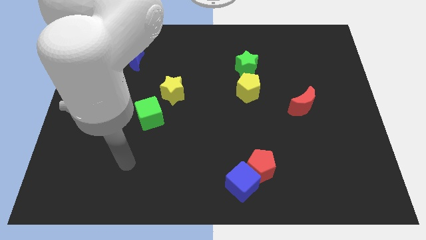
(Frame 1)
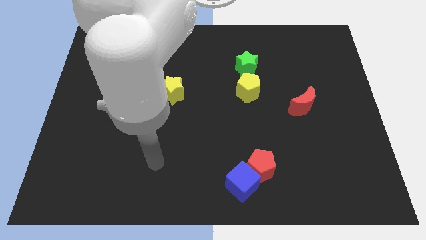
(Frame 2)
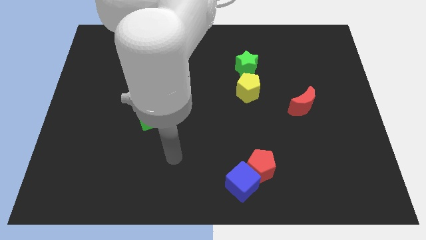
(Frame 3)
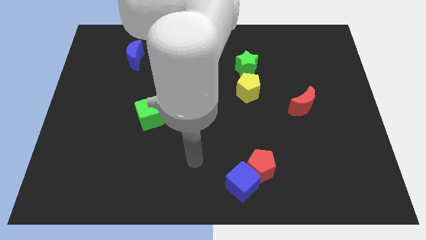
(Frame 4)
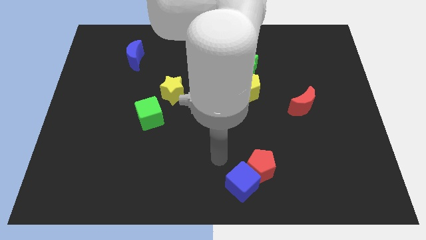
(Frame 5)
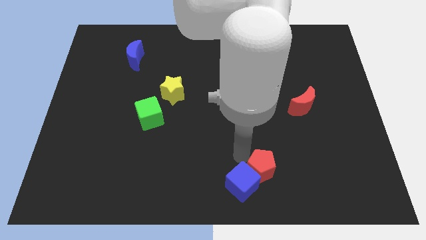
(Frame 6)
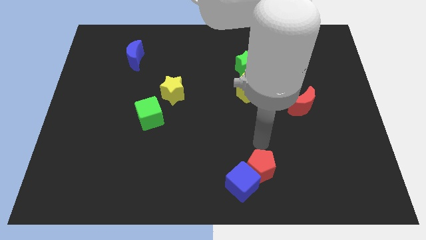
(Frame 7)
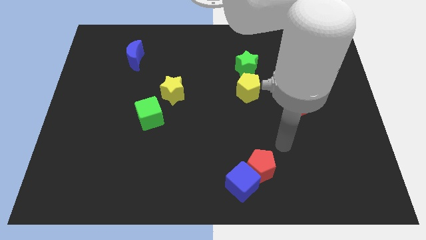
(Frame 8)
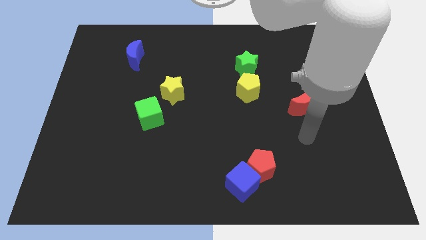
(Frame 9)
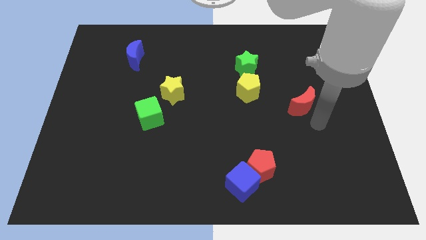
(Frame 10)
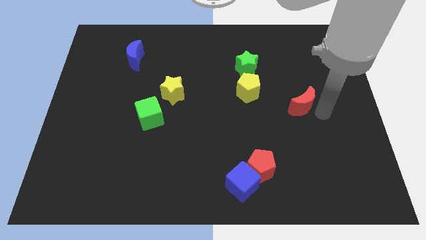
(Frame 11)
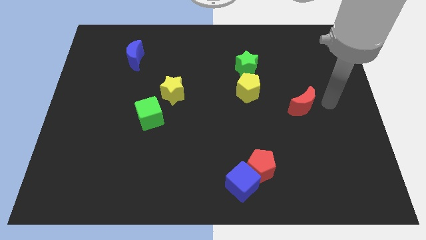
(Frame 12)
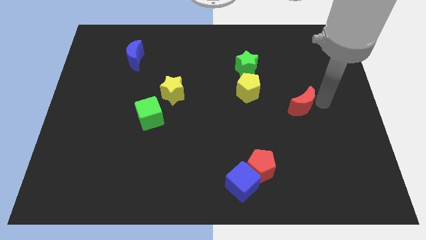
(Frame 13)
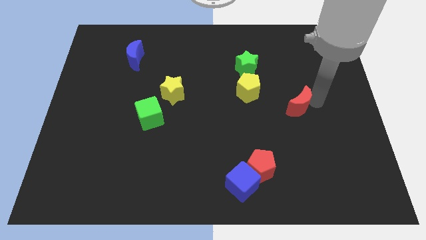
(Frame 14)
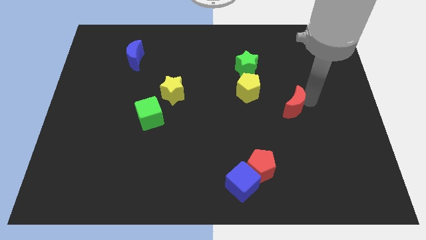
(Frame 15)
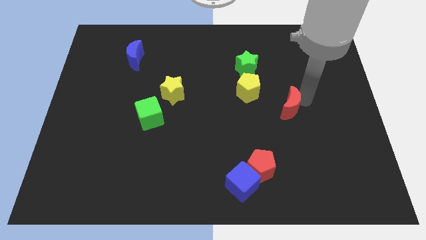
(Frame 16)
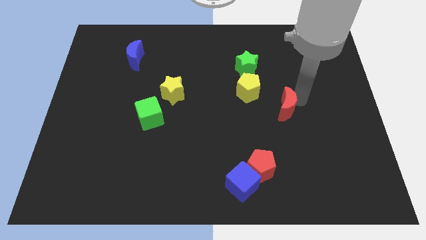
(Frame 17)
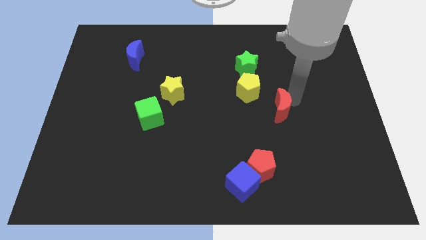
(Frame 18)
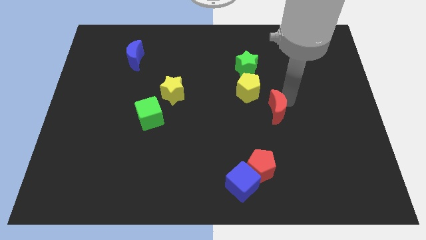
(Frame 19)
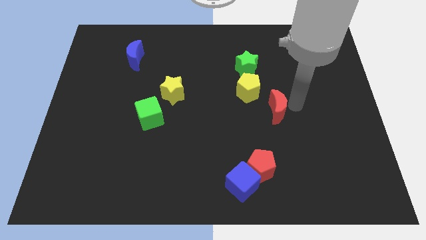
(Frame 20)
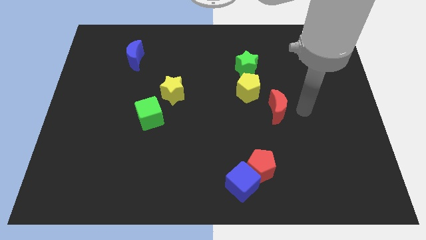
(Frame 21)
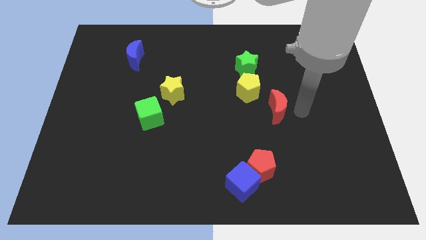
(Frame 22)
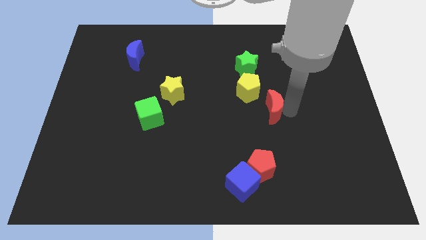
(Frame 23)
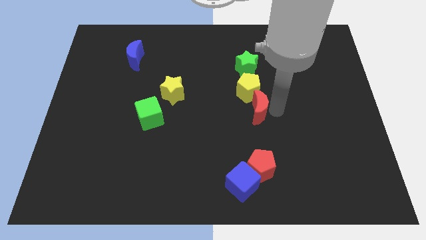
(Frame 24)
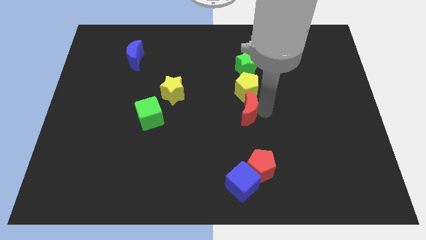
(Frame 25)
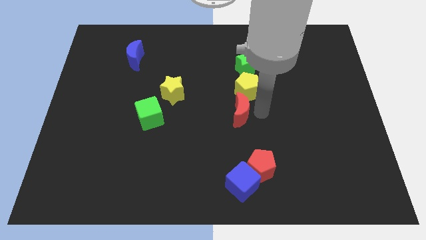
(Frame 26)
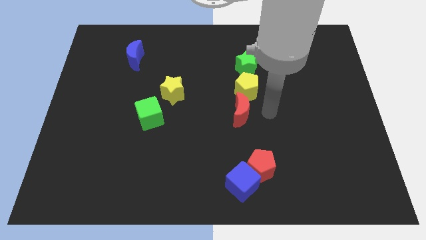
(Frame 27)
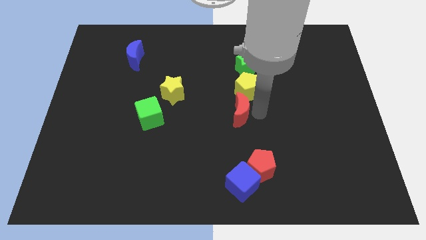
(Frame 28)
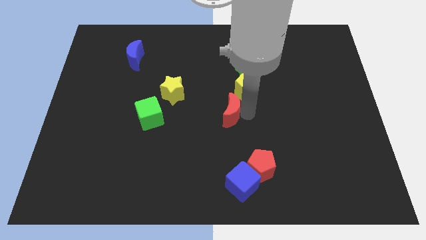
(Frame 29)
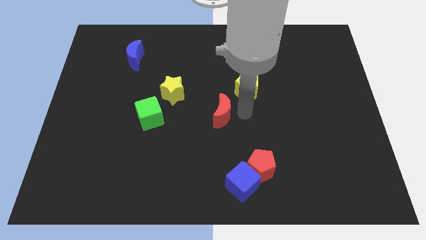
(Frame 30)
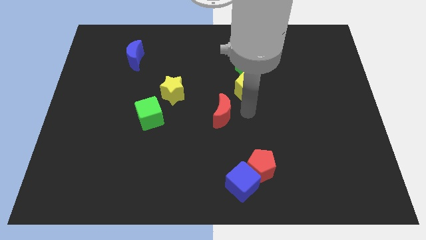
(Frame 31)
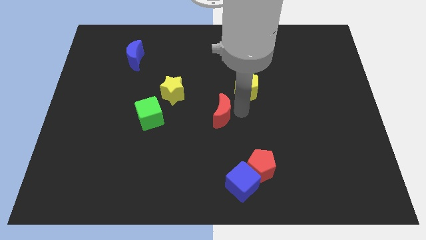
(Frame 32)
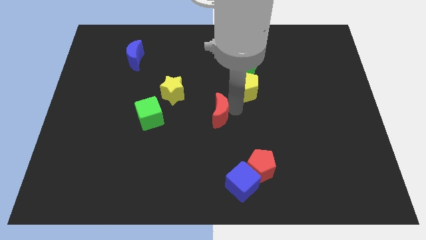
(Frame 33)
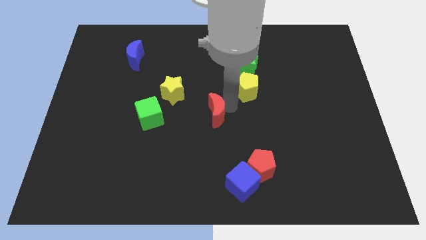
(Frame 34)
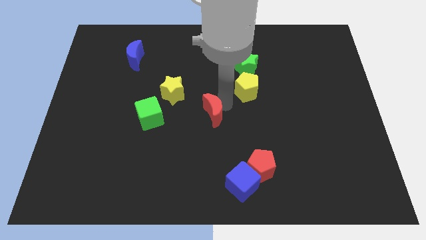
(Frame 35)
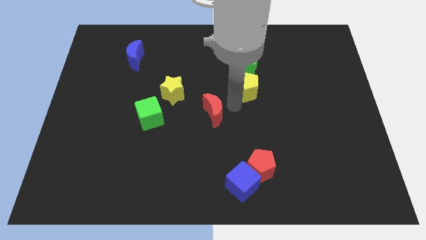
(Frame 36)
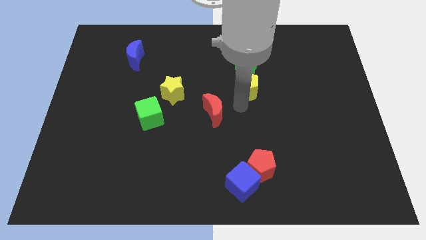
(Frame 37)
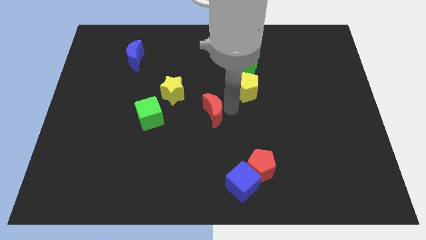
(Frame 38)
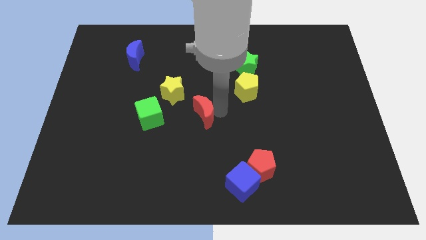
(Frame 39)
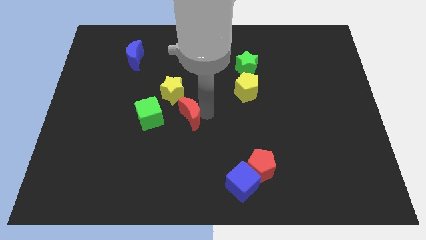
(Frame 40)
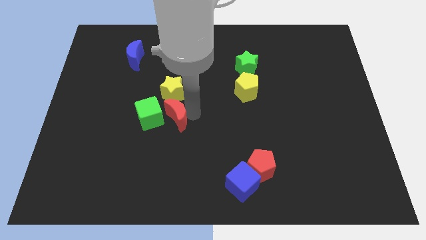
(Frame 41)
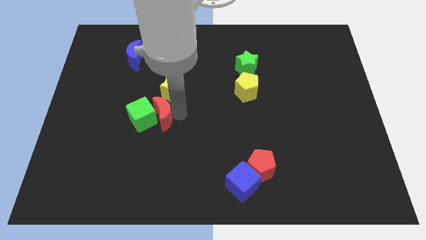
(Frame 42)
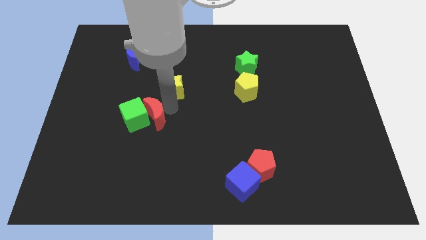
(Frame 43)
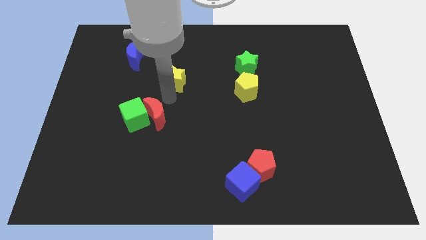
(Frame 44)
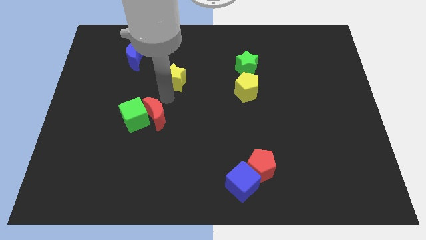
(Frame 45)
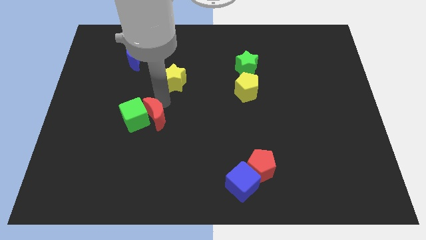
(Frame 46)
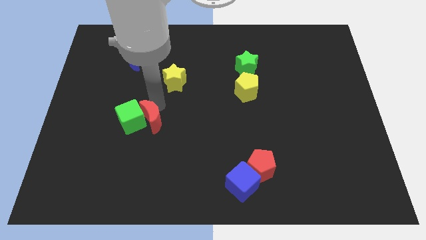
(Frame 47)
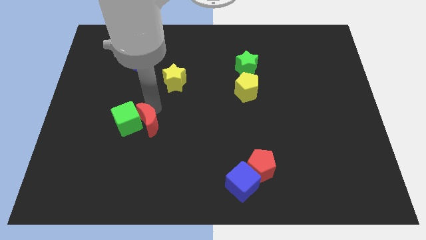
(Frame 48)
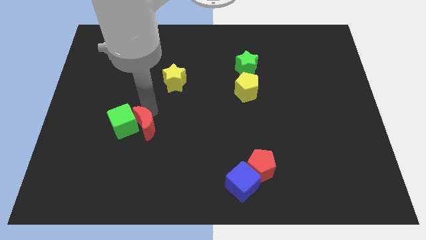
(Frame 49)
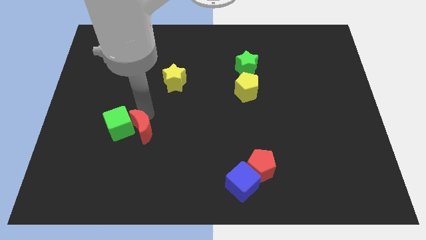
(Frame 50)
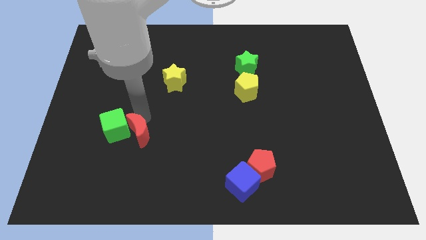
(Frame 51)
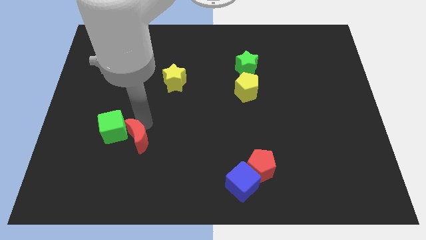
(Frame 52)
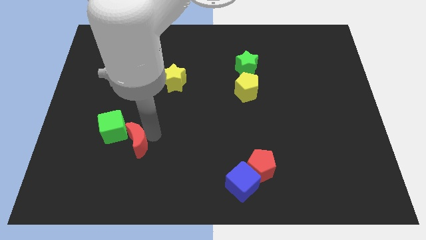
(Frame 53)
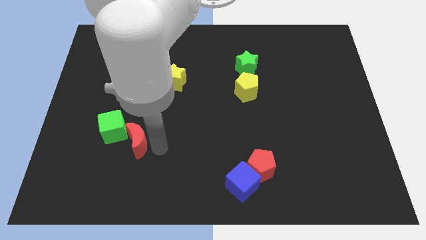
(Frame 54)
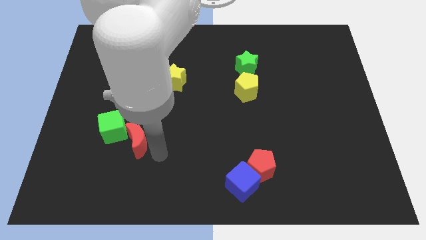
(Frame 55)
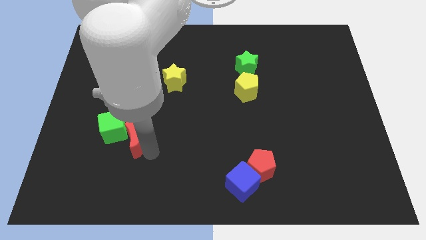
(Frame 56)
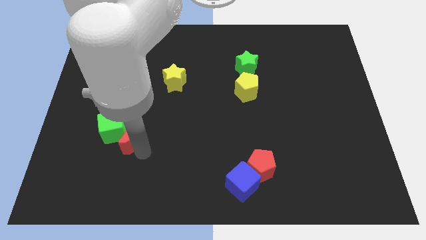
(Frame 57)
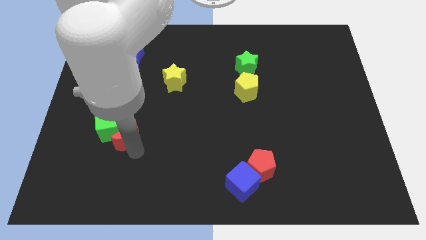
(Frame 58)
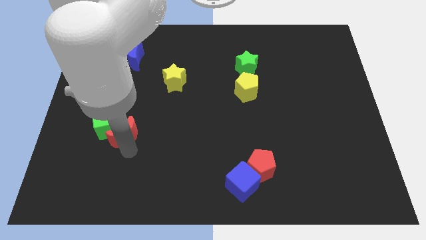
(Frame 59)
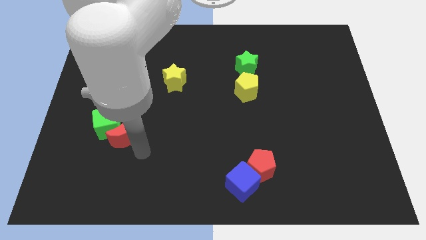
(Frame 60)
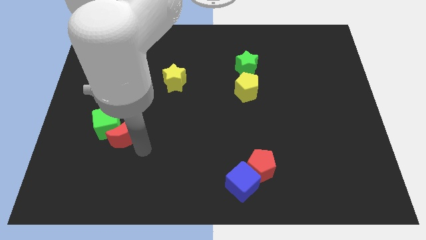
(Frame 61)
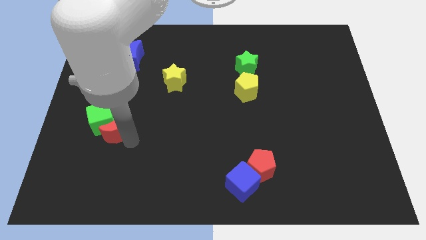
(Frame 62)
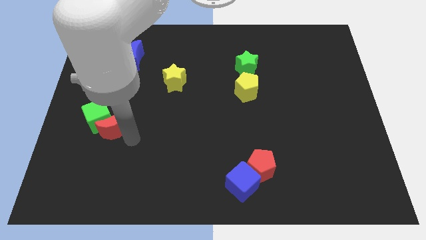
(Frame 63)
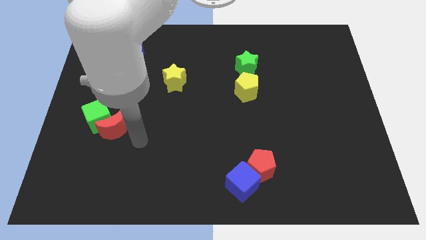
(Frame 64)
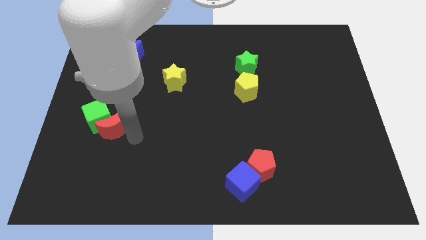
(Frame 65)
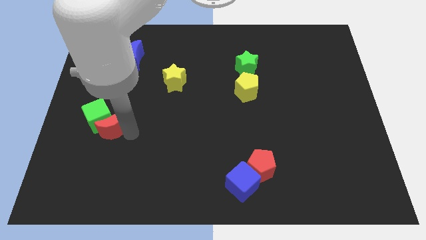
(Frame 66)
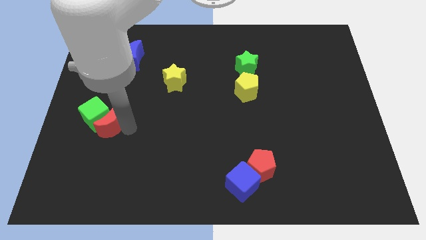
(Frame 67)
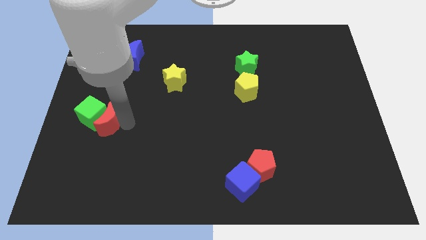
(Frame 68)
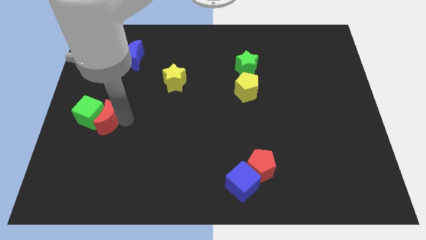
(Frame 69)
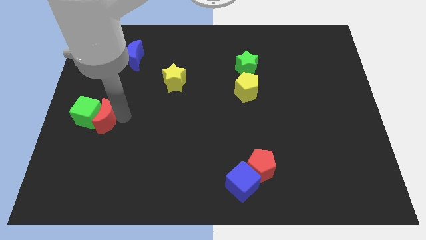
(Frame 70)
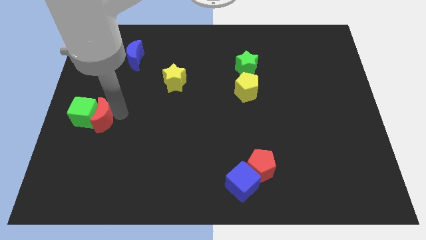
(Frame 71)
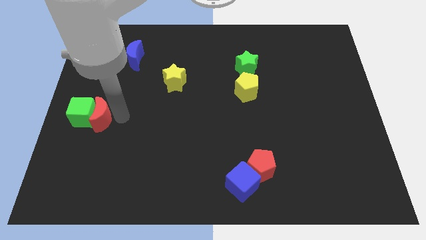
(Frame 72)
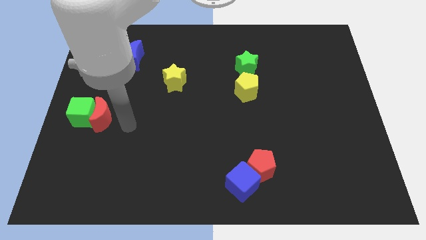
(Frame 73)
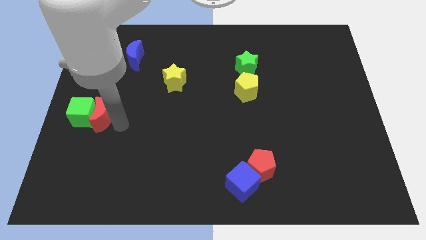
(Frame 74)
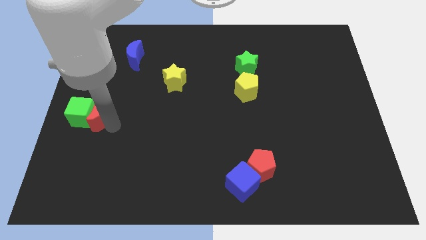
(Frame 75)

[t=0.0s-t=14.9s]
push the red moon to the left side
